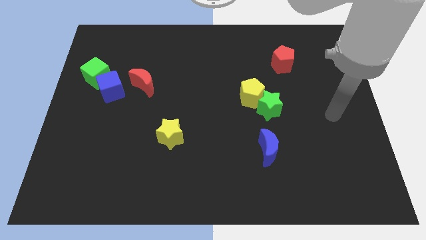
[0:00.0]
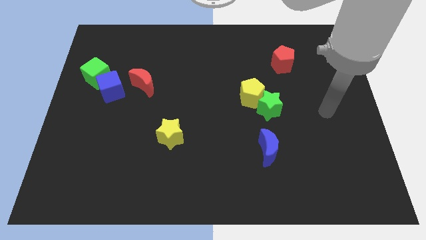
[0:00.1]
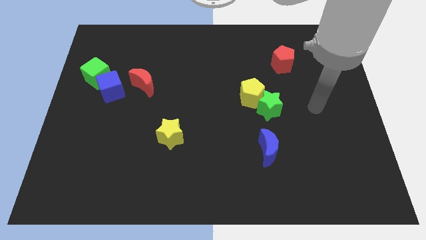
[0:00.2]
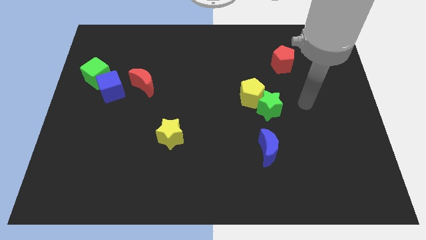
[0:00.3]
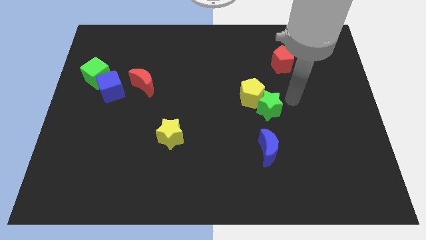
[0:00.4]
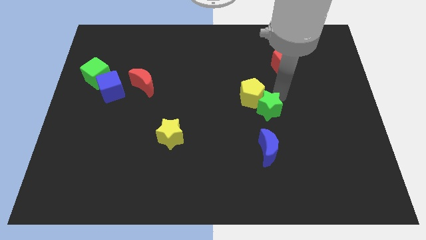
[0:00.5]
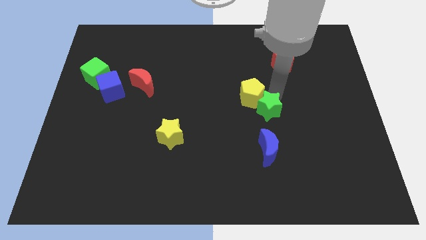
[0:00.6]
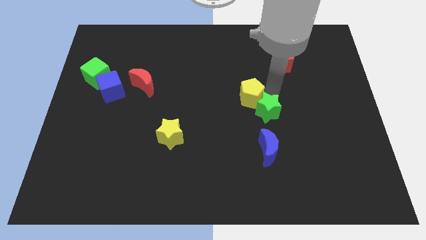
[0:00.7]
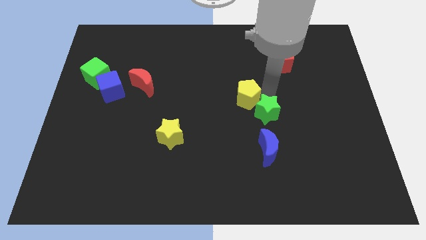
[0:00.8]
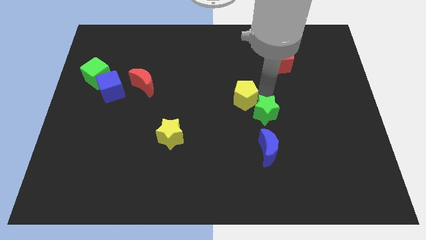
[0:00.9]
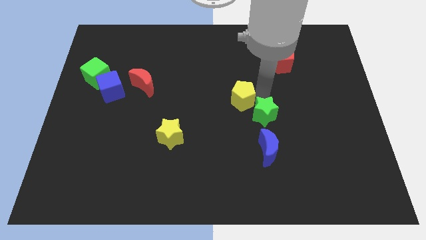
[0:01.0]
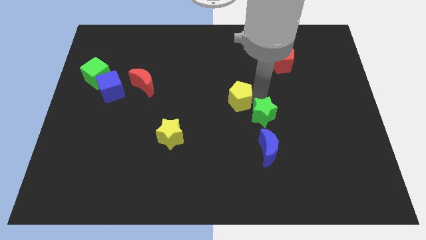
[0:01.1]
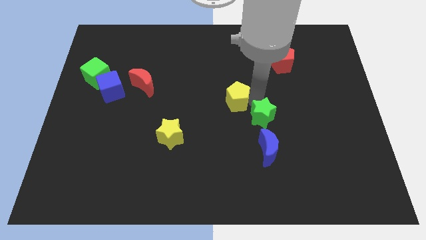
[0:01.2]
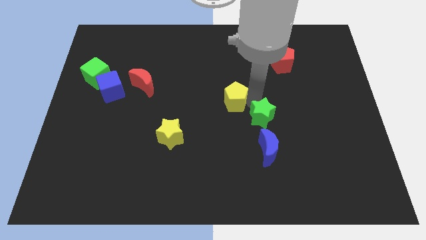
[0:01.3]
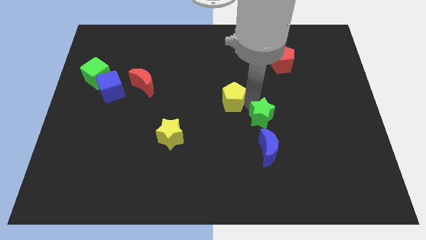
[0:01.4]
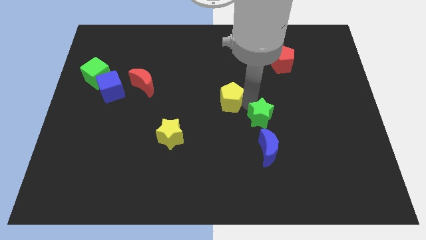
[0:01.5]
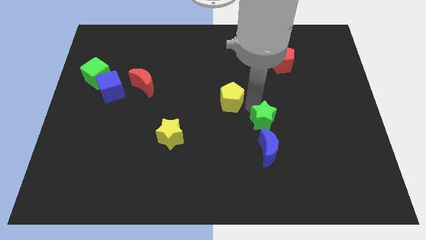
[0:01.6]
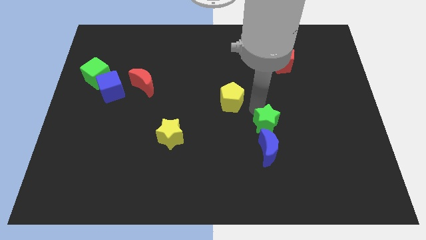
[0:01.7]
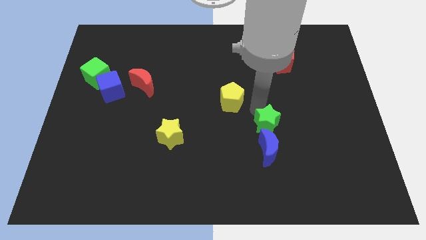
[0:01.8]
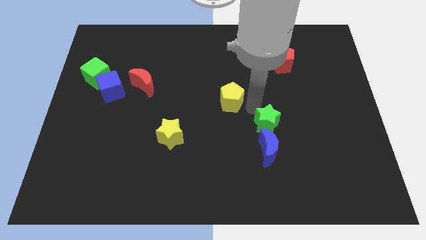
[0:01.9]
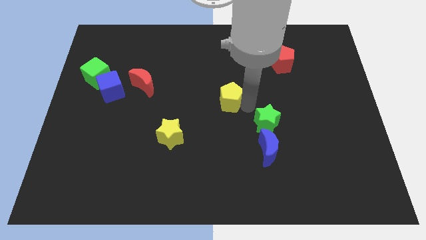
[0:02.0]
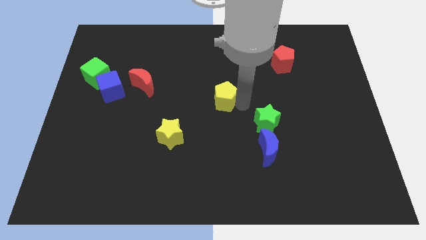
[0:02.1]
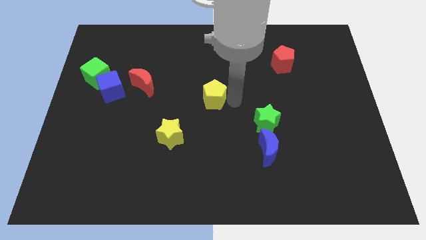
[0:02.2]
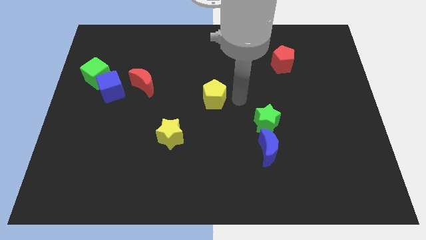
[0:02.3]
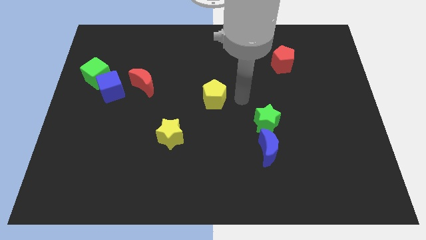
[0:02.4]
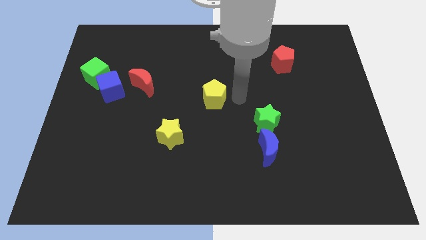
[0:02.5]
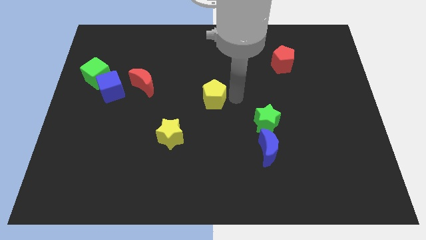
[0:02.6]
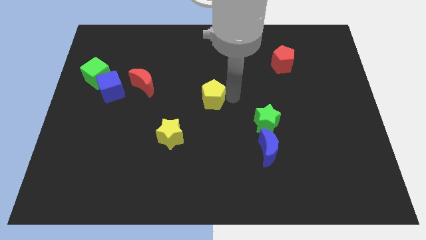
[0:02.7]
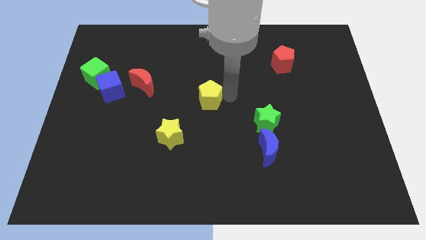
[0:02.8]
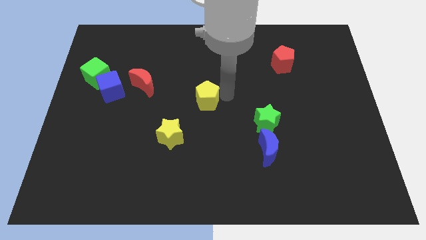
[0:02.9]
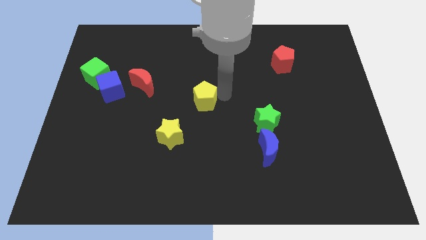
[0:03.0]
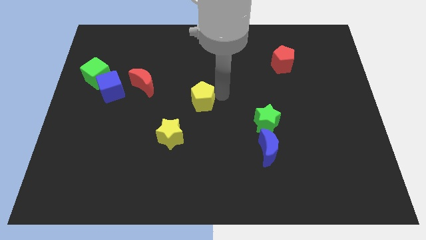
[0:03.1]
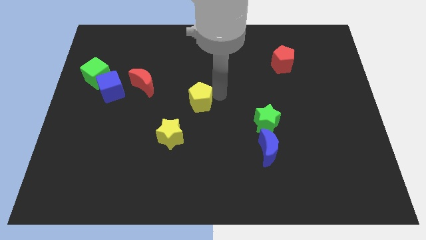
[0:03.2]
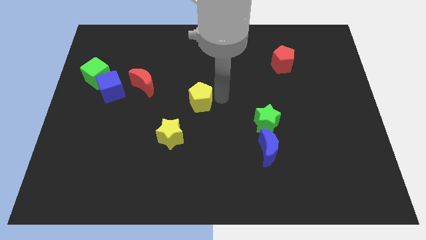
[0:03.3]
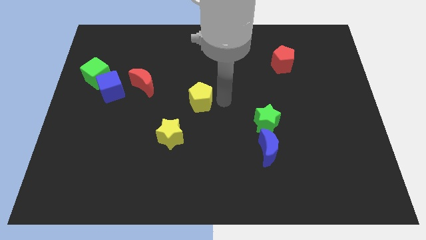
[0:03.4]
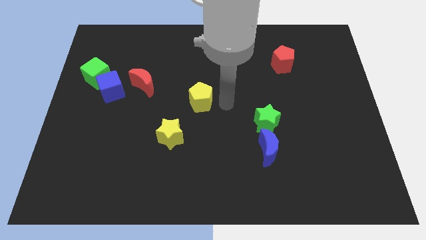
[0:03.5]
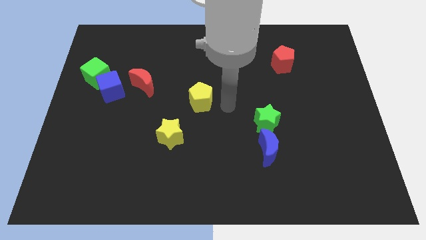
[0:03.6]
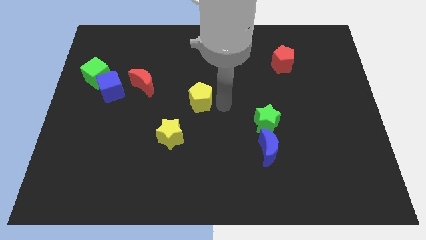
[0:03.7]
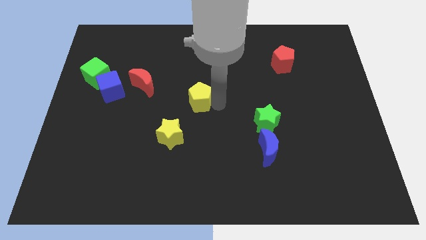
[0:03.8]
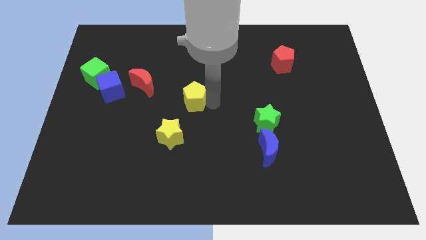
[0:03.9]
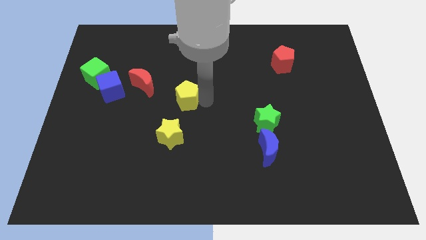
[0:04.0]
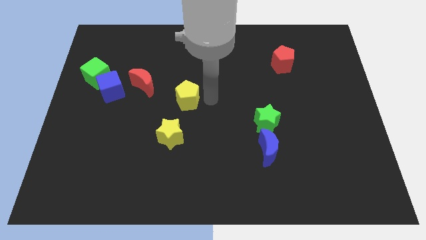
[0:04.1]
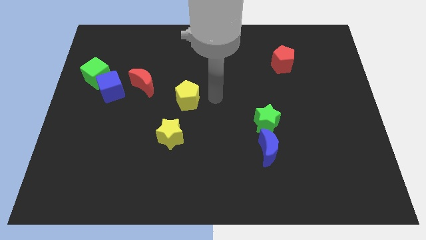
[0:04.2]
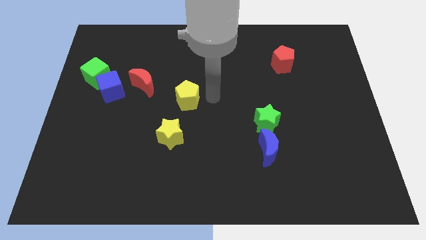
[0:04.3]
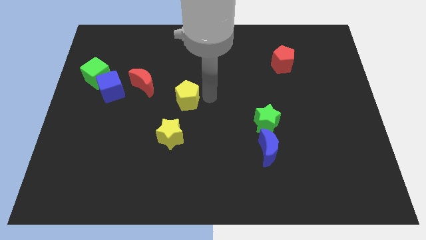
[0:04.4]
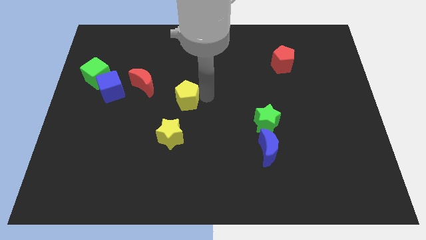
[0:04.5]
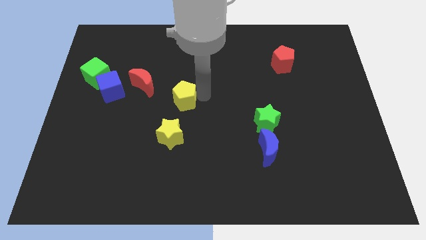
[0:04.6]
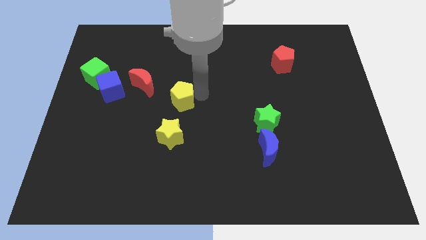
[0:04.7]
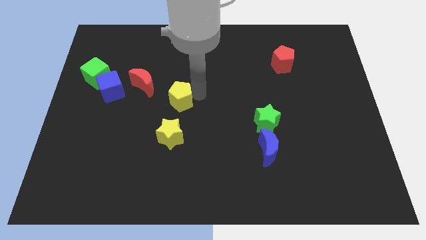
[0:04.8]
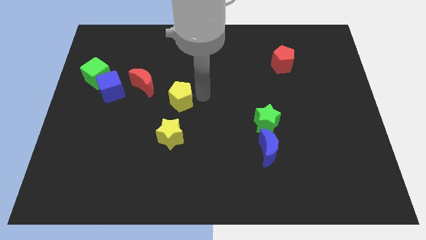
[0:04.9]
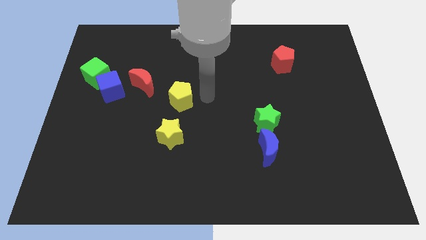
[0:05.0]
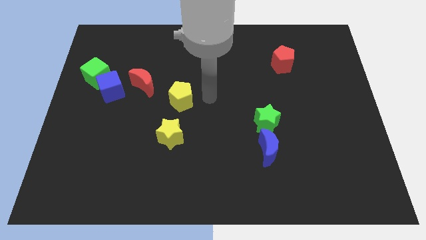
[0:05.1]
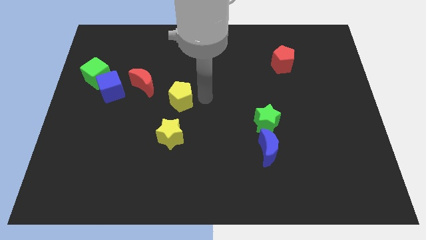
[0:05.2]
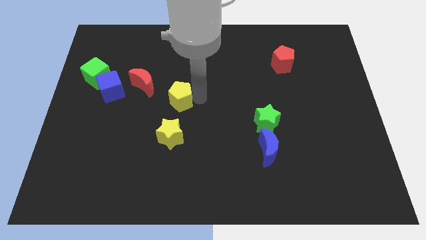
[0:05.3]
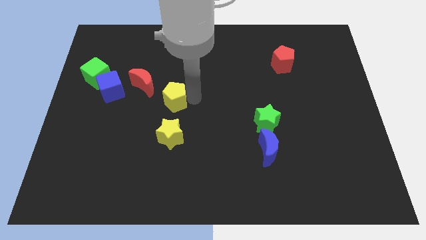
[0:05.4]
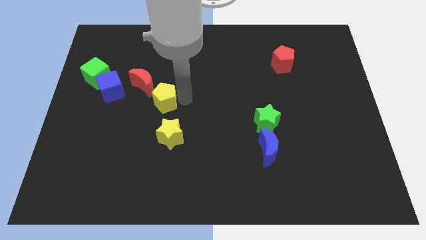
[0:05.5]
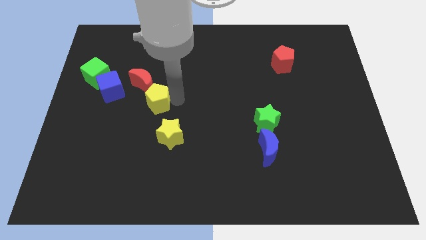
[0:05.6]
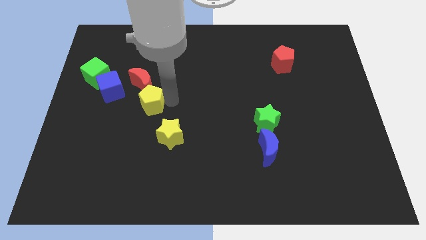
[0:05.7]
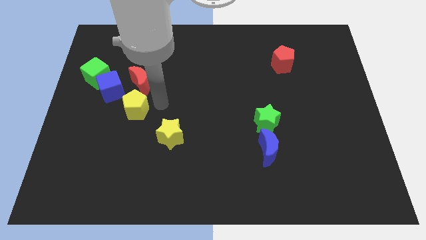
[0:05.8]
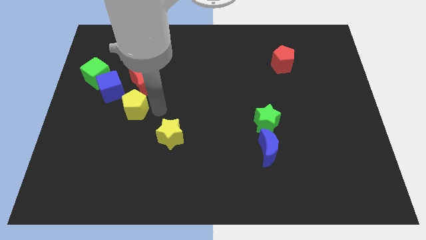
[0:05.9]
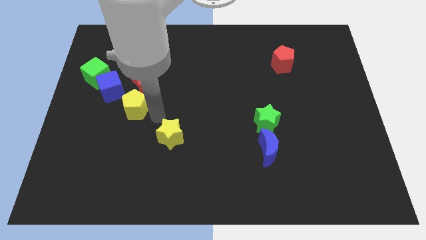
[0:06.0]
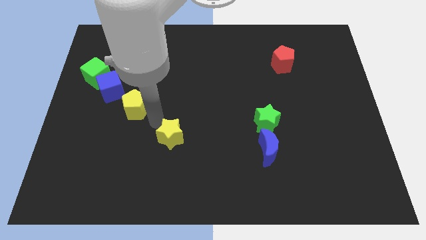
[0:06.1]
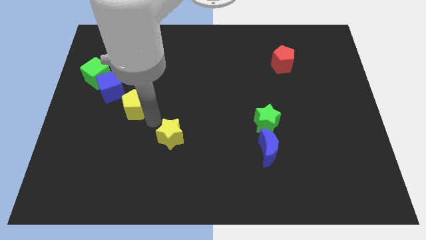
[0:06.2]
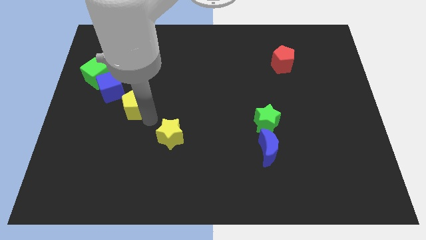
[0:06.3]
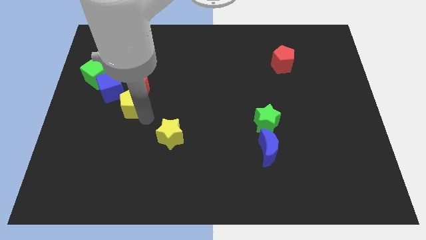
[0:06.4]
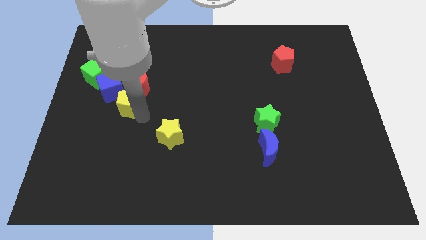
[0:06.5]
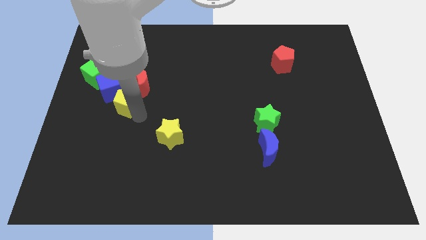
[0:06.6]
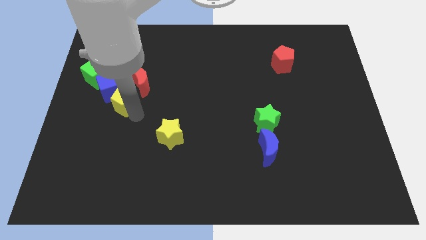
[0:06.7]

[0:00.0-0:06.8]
slide the yellow pentagon towards the blue cube
